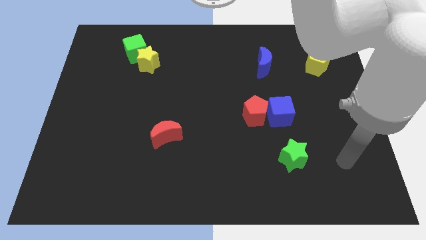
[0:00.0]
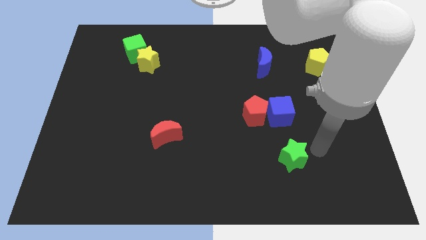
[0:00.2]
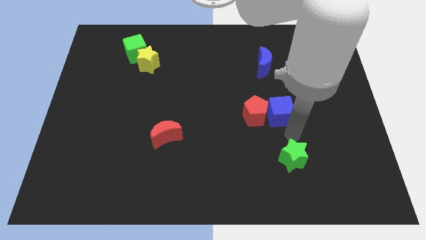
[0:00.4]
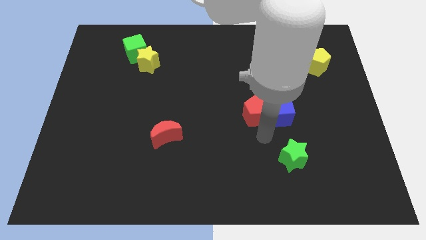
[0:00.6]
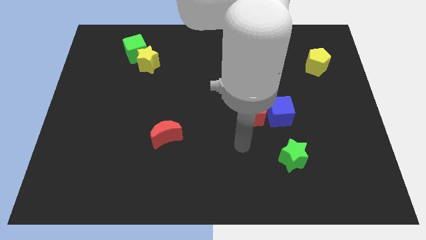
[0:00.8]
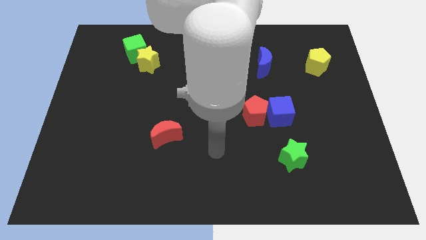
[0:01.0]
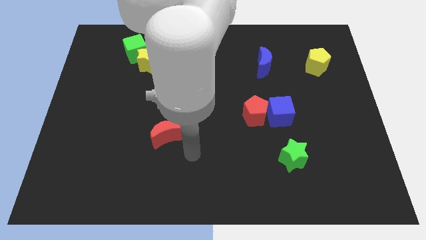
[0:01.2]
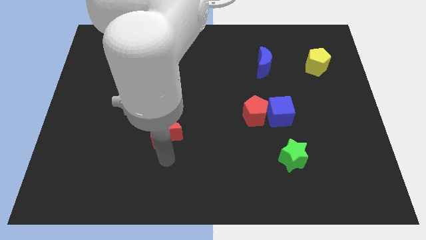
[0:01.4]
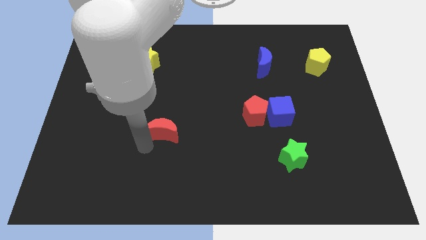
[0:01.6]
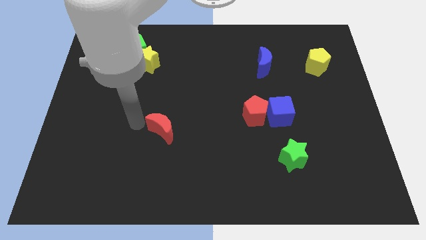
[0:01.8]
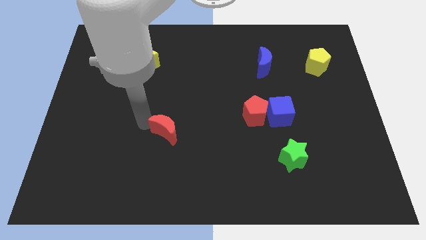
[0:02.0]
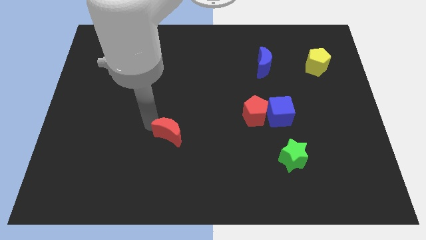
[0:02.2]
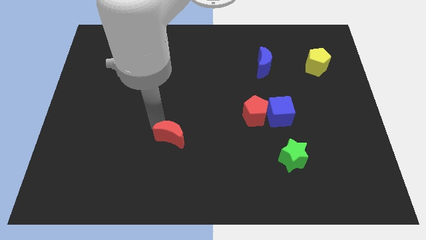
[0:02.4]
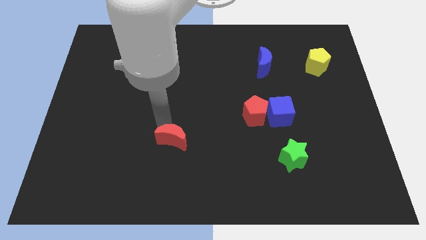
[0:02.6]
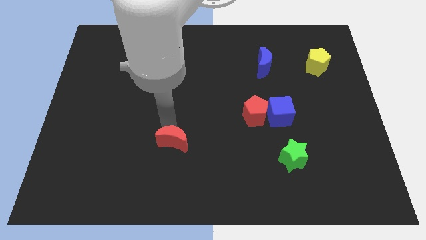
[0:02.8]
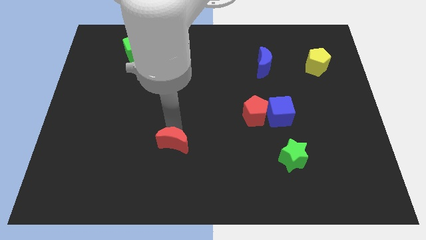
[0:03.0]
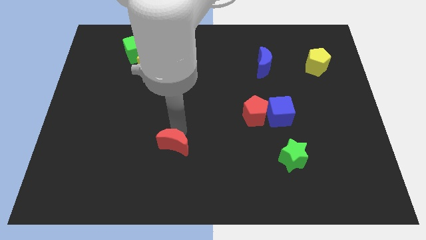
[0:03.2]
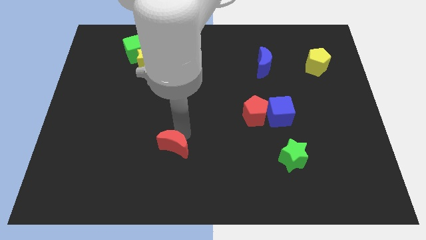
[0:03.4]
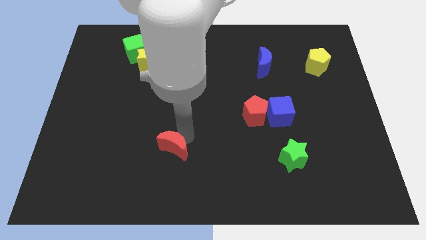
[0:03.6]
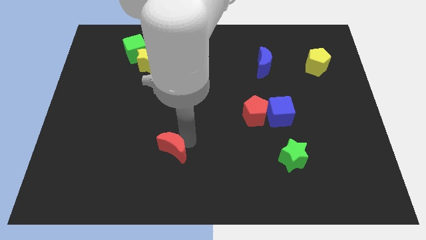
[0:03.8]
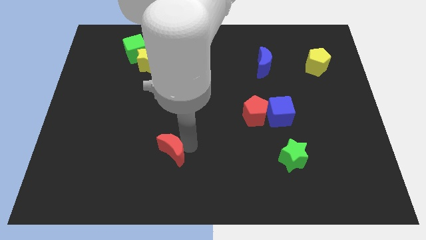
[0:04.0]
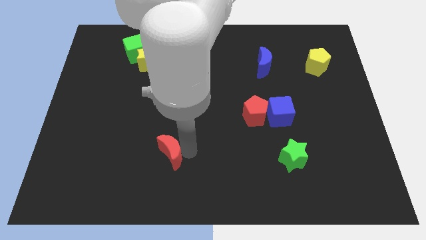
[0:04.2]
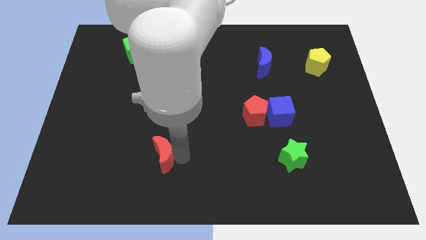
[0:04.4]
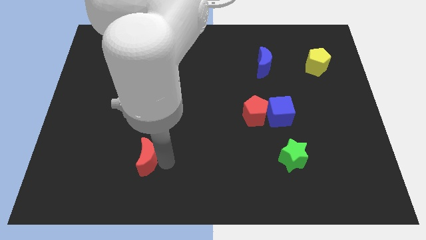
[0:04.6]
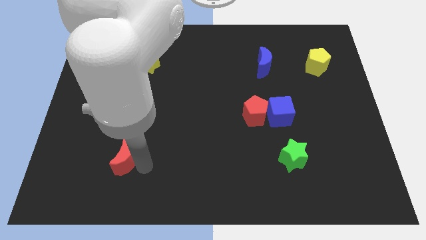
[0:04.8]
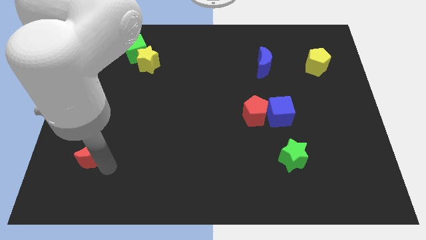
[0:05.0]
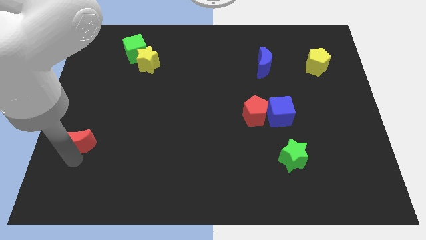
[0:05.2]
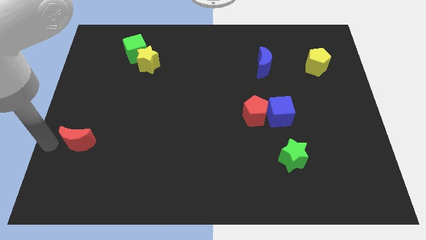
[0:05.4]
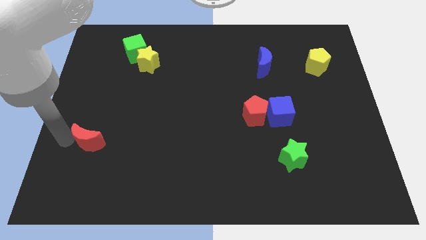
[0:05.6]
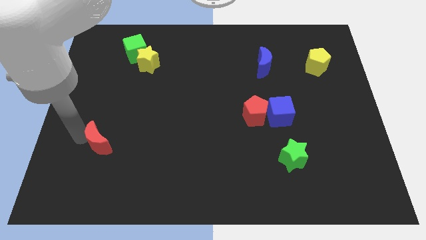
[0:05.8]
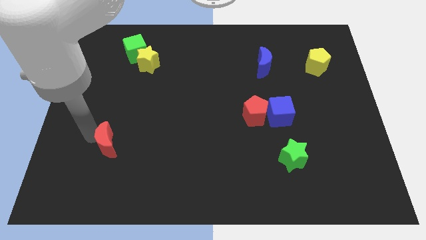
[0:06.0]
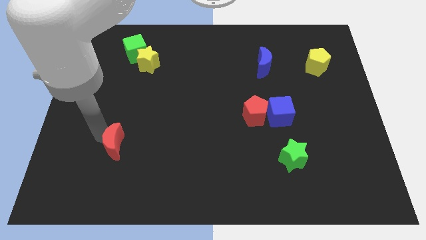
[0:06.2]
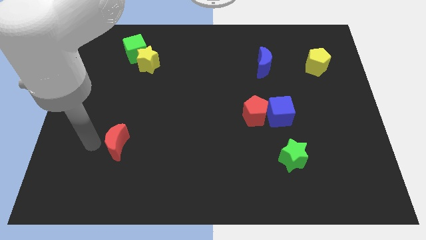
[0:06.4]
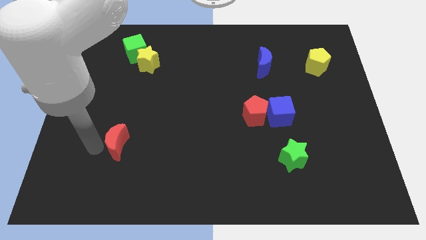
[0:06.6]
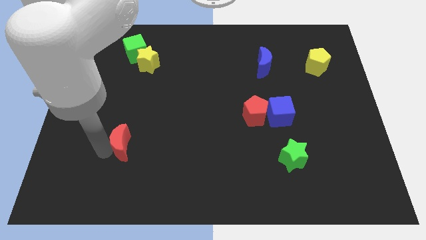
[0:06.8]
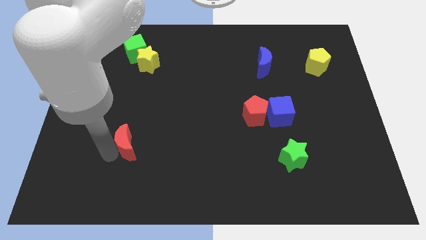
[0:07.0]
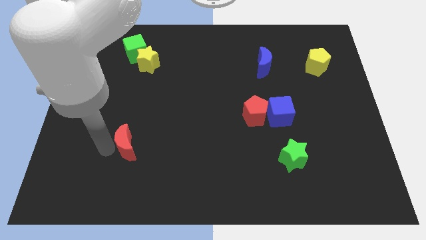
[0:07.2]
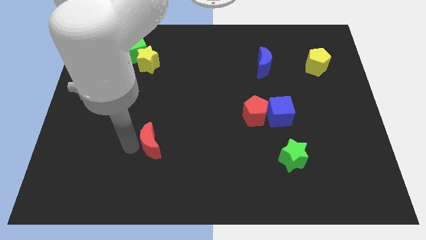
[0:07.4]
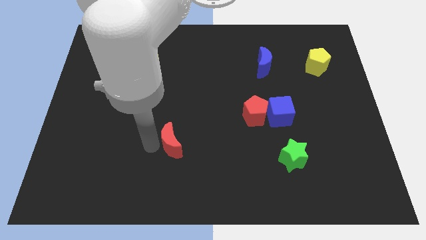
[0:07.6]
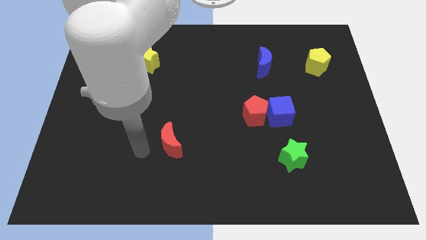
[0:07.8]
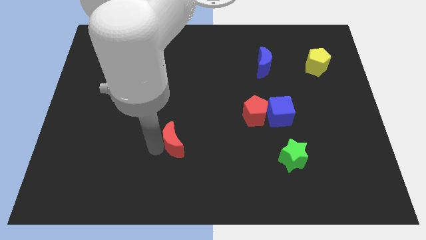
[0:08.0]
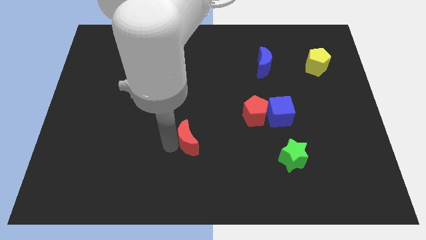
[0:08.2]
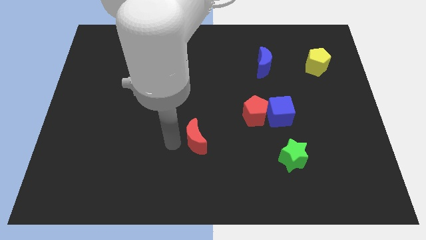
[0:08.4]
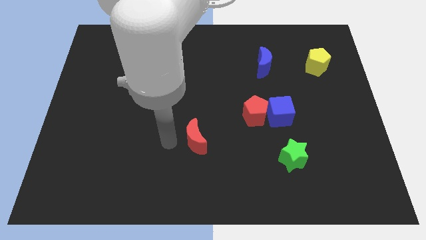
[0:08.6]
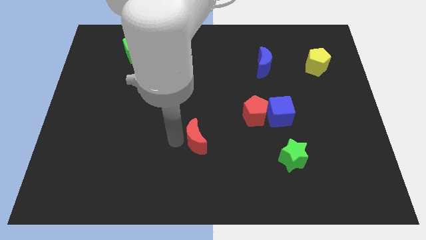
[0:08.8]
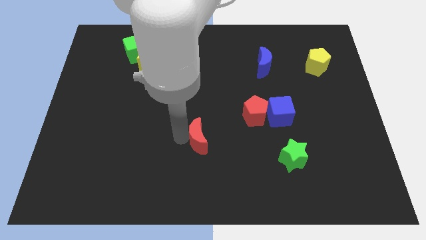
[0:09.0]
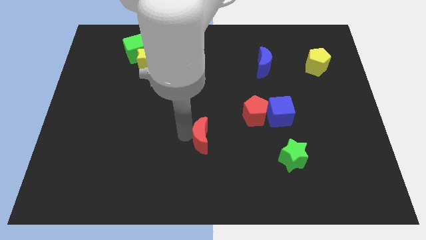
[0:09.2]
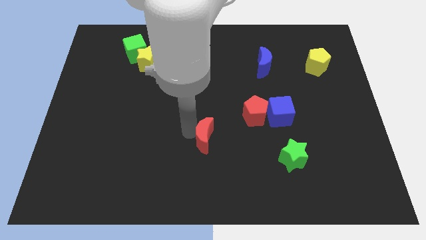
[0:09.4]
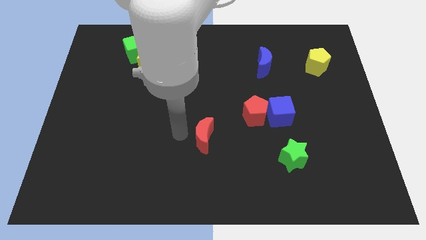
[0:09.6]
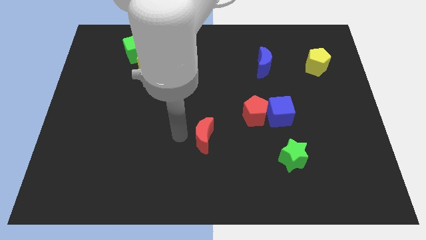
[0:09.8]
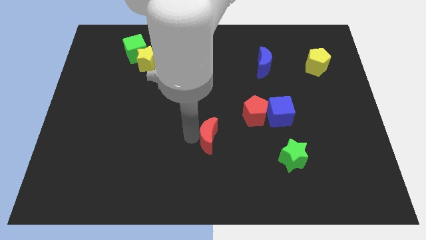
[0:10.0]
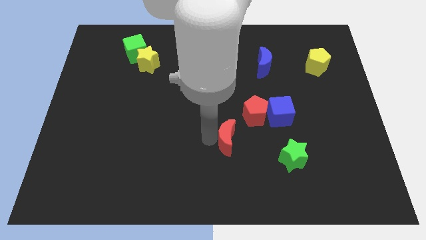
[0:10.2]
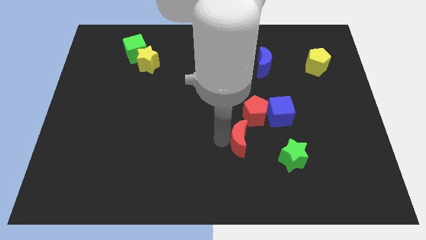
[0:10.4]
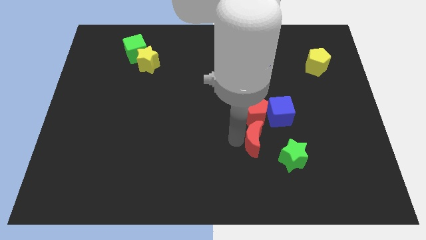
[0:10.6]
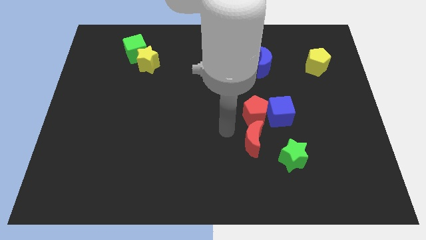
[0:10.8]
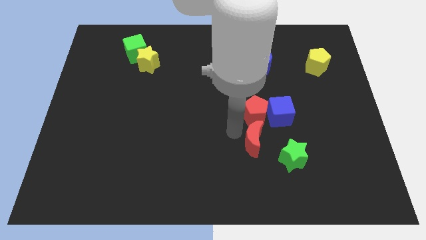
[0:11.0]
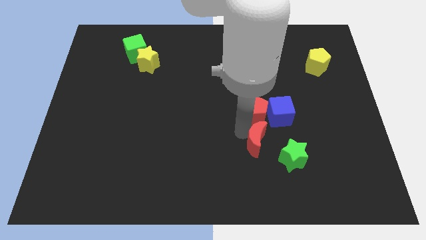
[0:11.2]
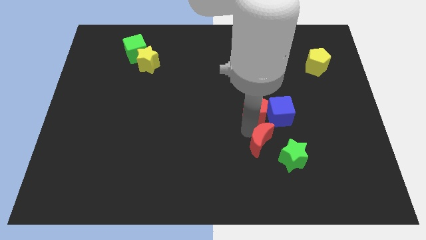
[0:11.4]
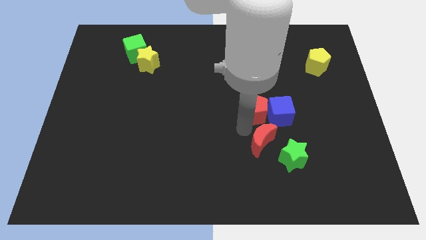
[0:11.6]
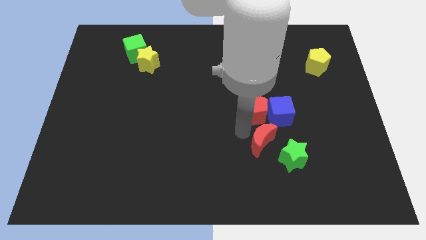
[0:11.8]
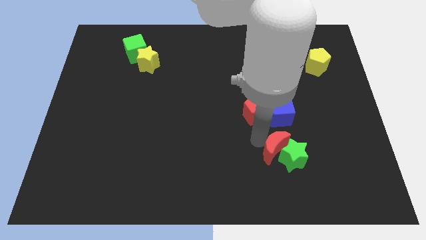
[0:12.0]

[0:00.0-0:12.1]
put the red moon next to the green star

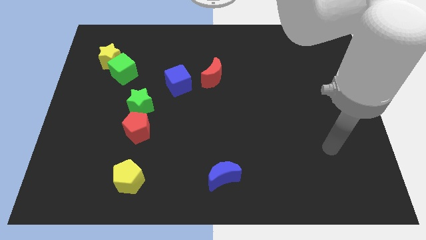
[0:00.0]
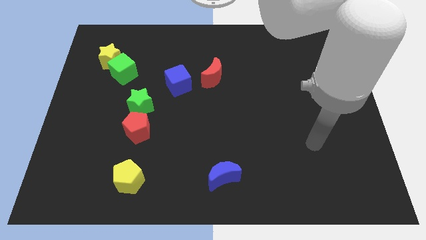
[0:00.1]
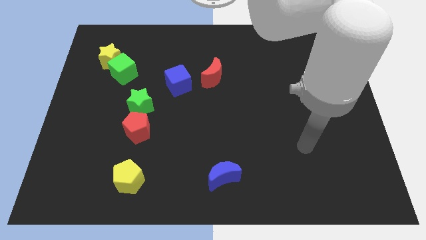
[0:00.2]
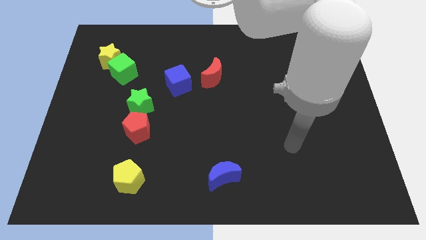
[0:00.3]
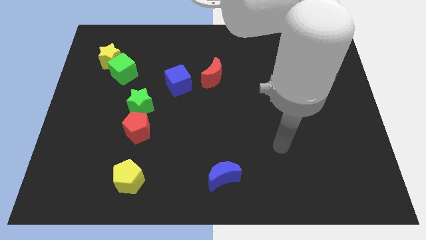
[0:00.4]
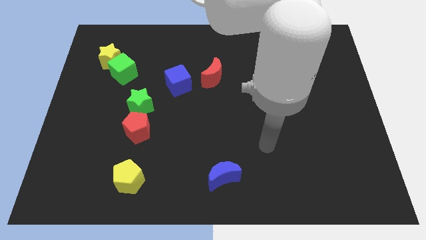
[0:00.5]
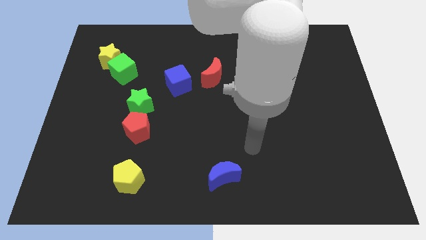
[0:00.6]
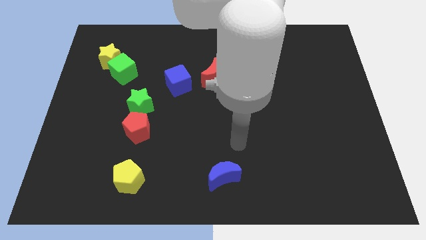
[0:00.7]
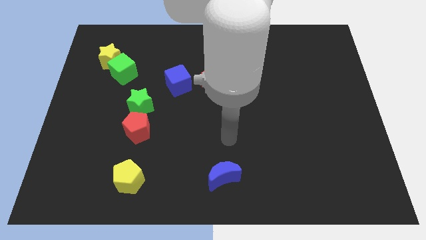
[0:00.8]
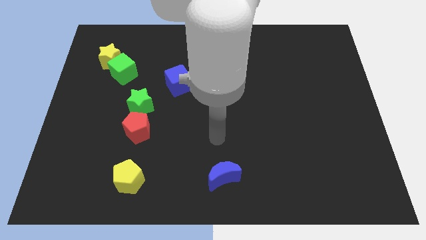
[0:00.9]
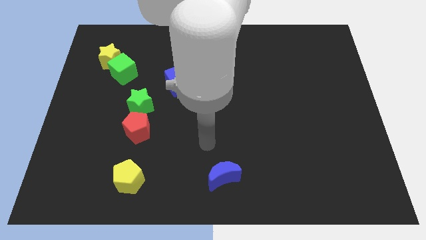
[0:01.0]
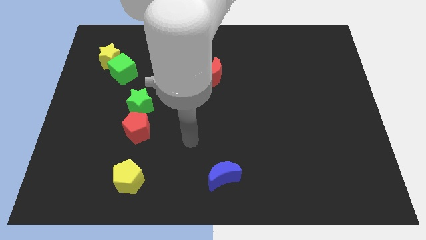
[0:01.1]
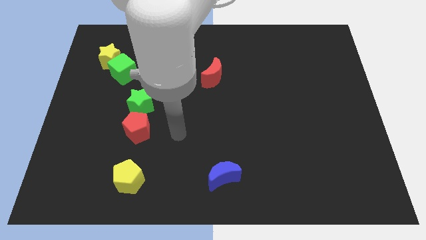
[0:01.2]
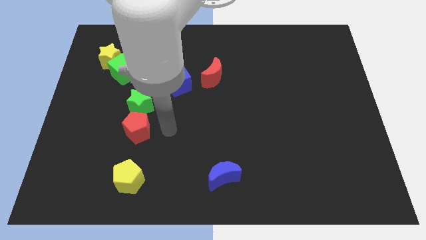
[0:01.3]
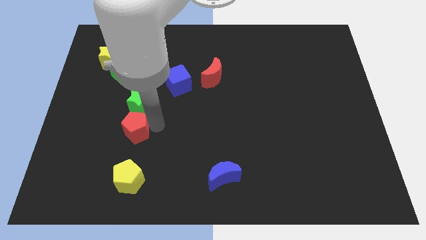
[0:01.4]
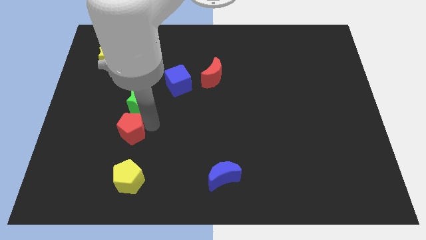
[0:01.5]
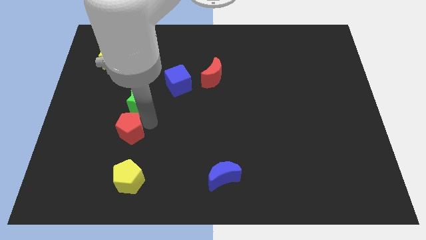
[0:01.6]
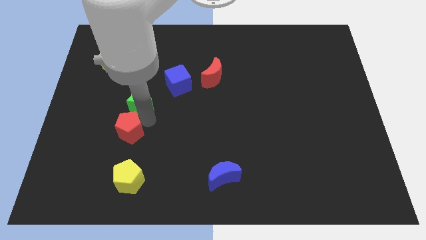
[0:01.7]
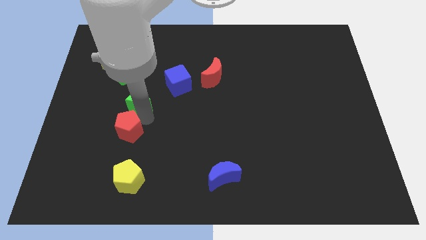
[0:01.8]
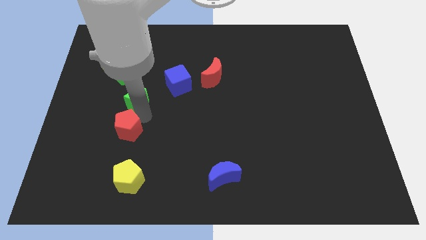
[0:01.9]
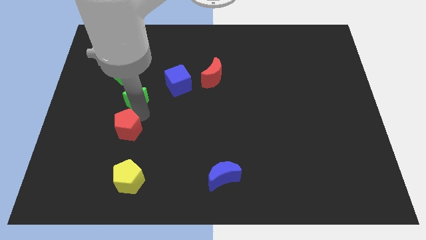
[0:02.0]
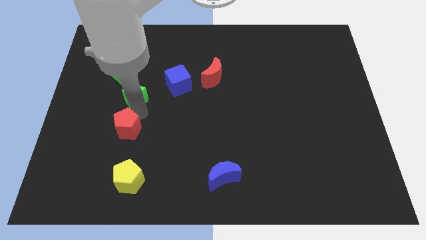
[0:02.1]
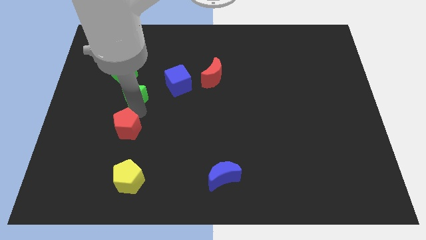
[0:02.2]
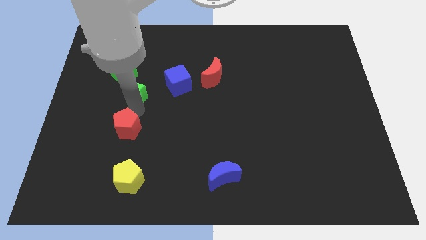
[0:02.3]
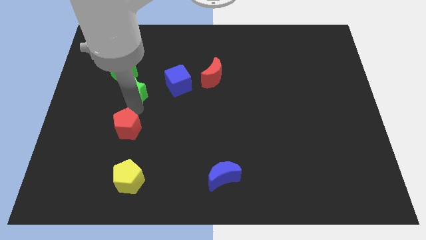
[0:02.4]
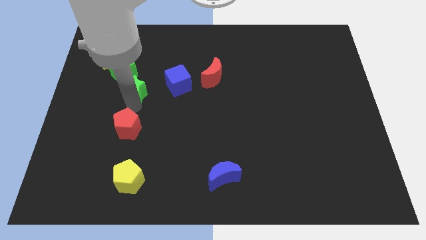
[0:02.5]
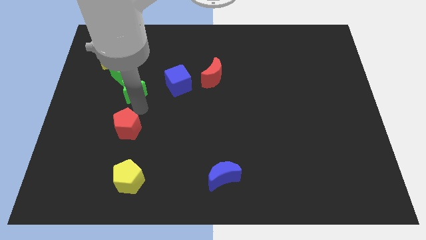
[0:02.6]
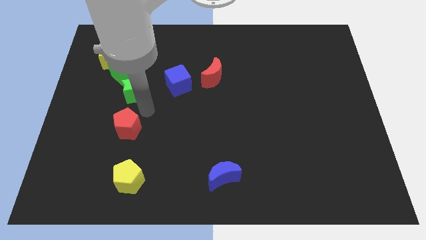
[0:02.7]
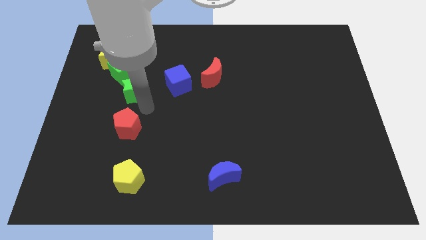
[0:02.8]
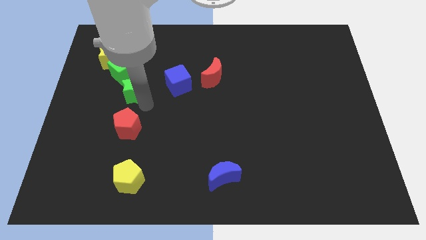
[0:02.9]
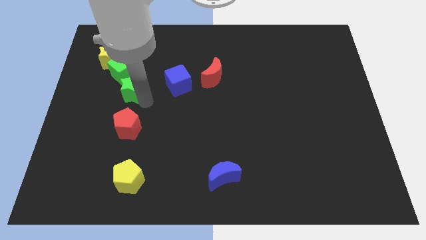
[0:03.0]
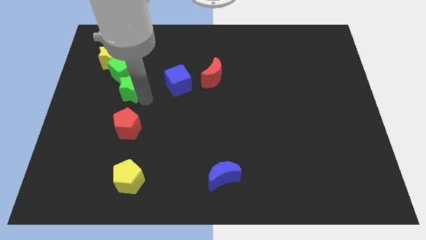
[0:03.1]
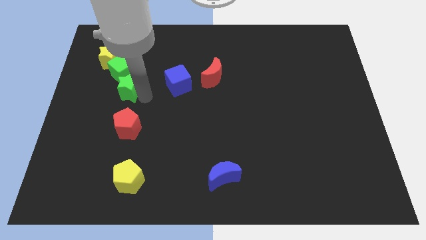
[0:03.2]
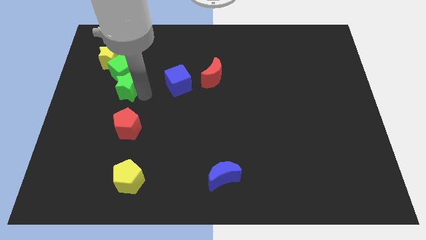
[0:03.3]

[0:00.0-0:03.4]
push the green star towards the green cube
